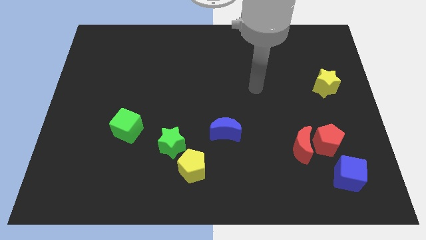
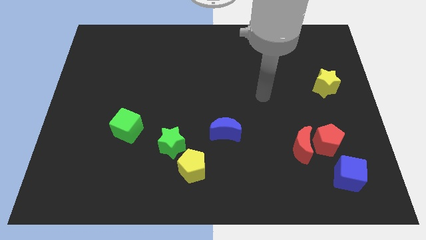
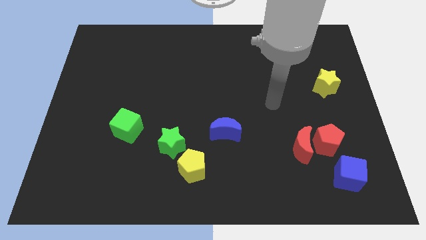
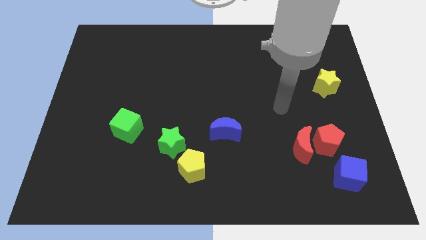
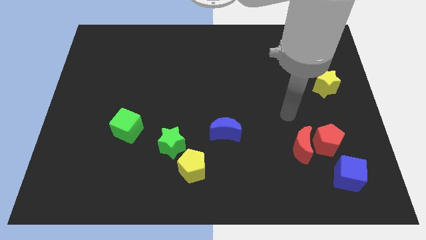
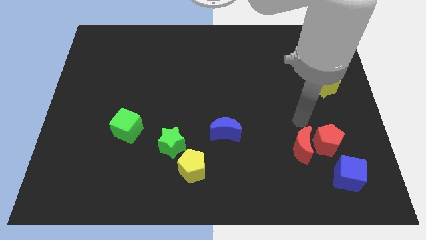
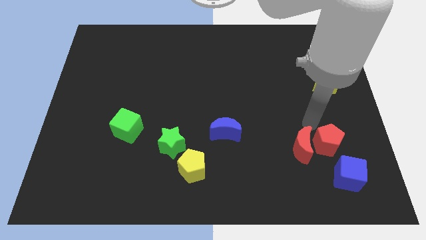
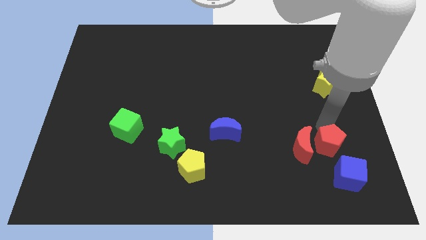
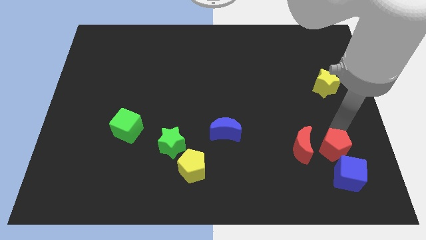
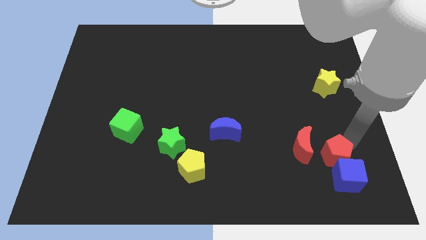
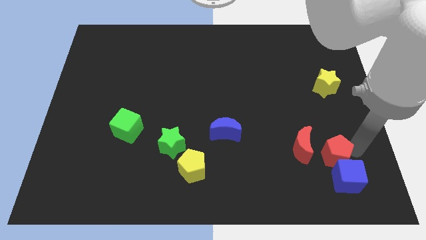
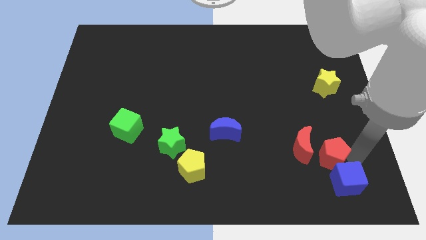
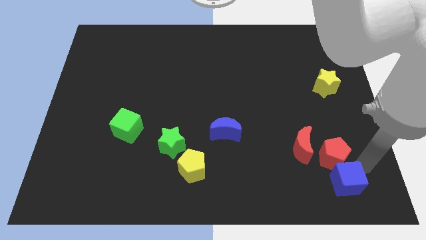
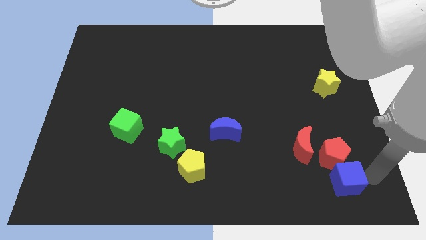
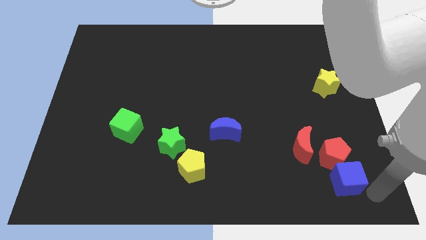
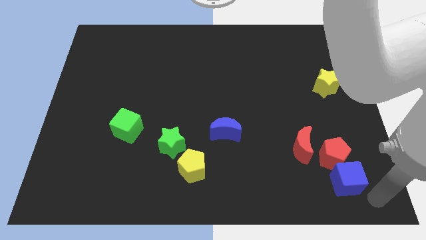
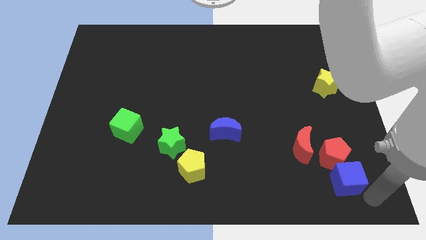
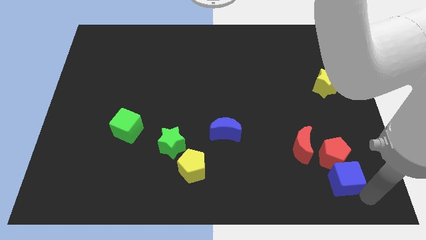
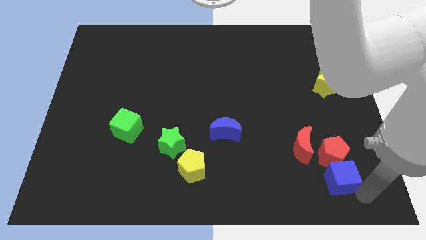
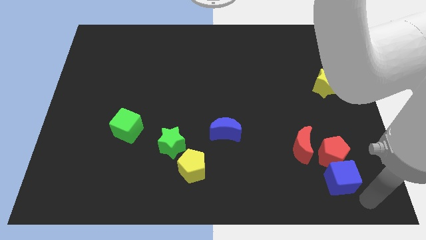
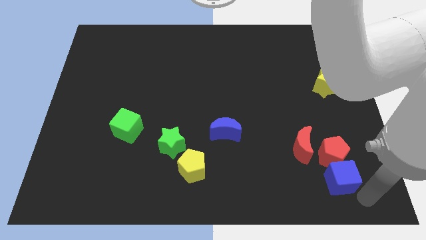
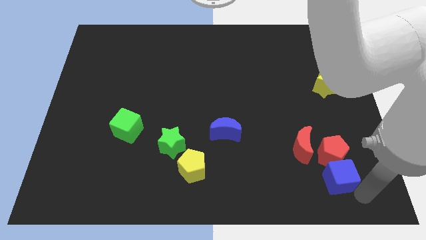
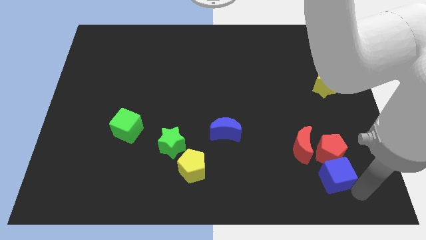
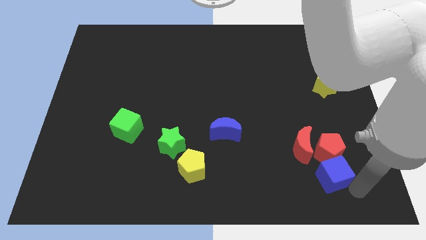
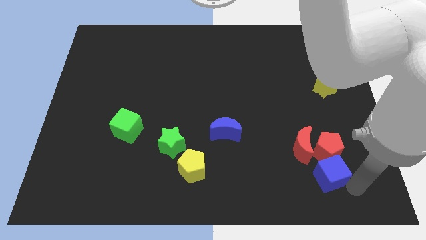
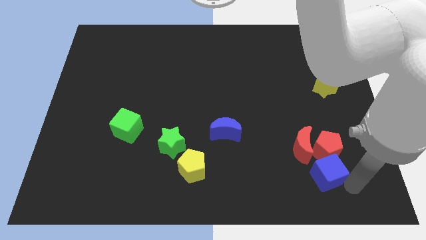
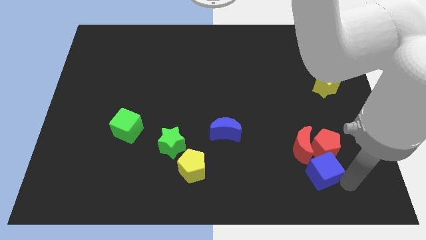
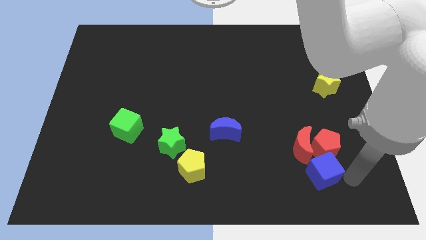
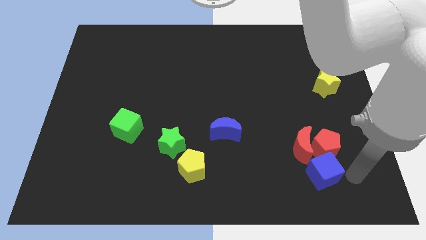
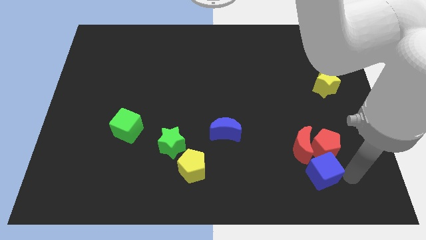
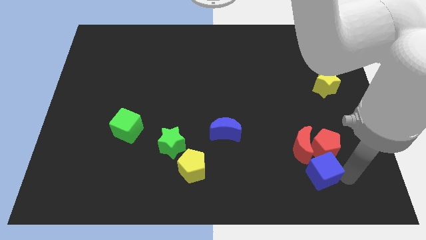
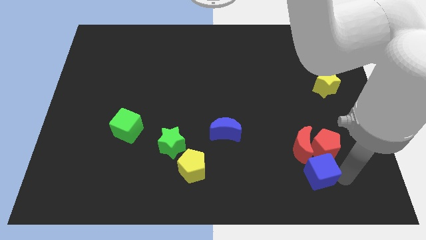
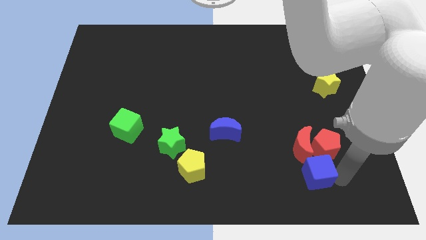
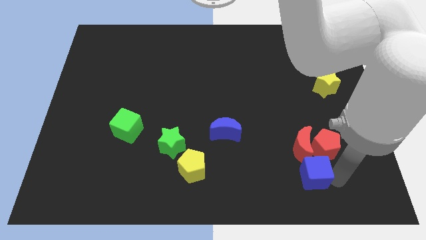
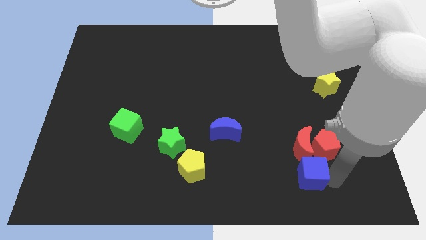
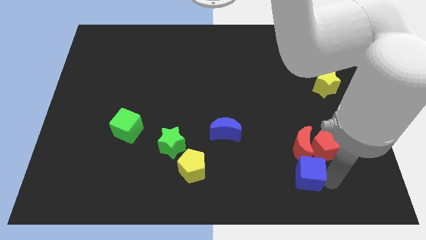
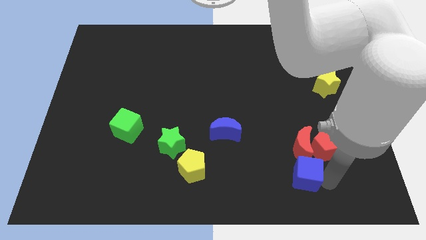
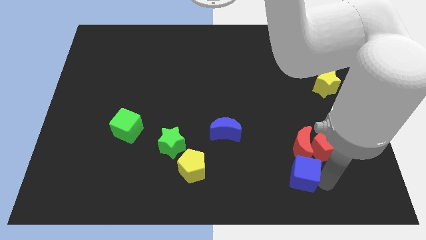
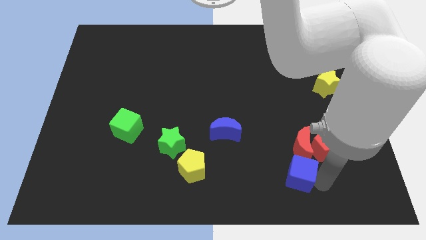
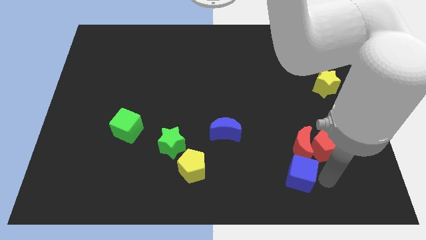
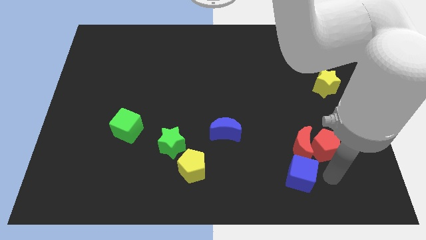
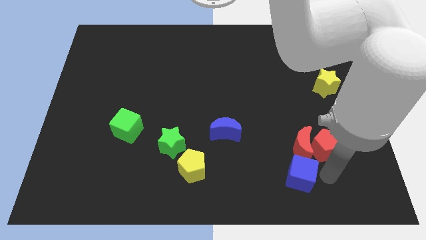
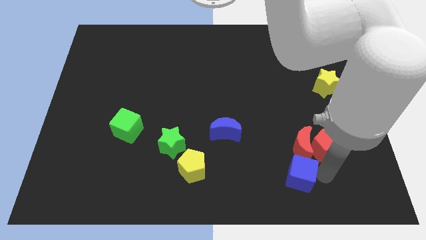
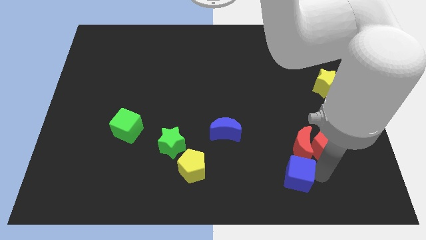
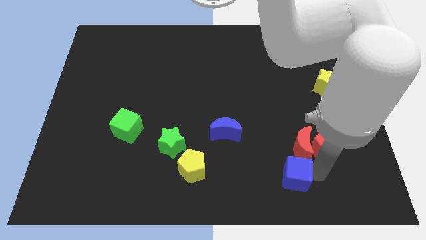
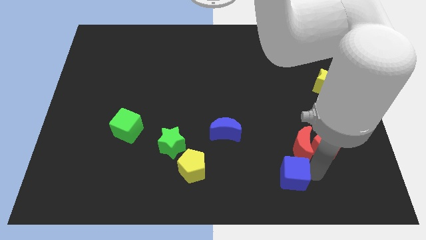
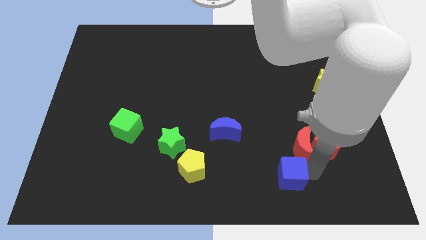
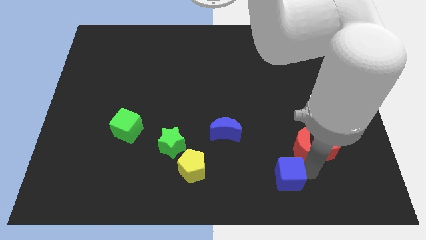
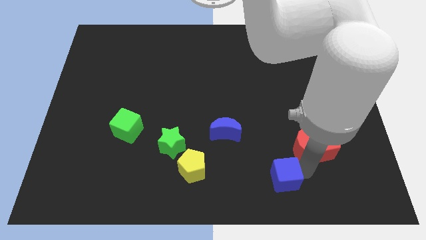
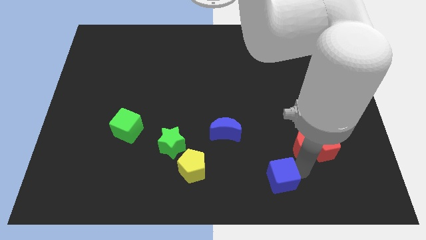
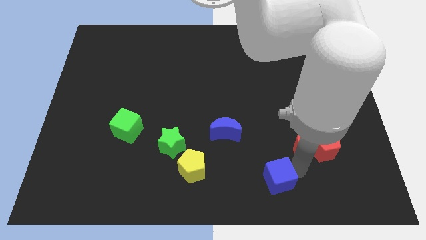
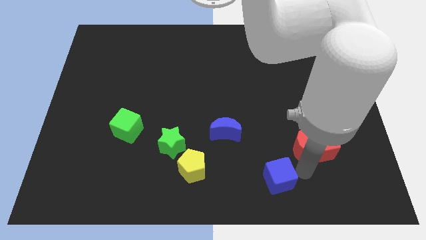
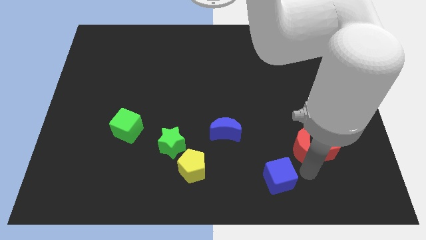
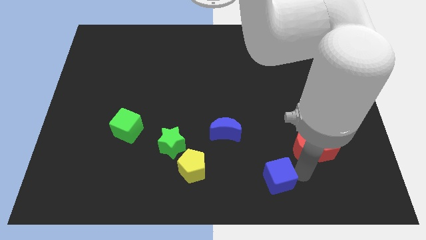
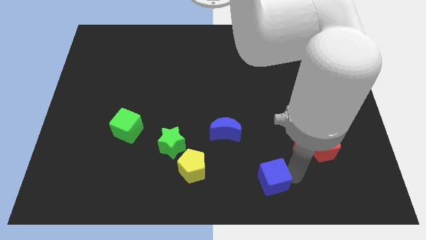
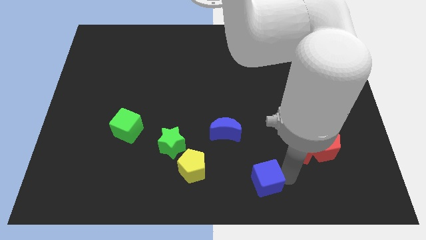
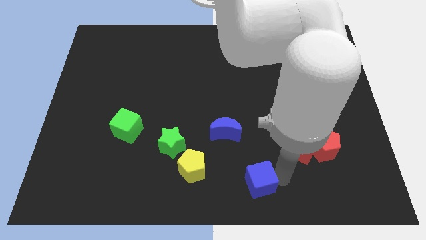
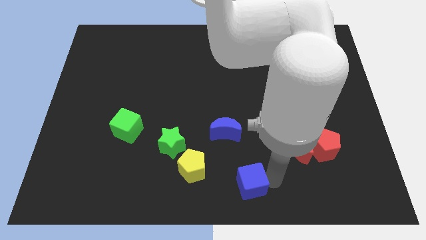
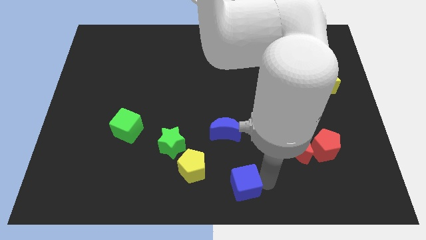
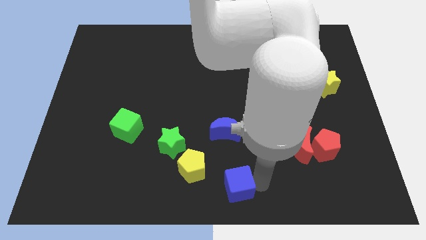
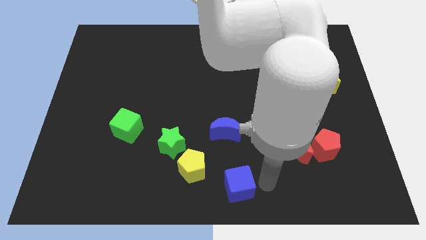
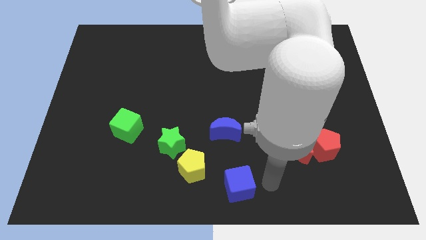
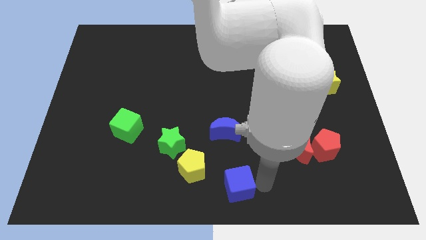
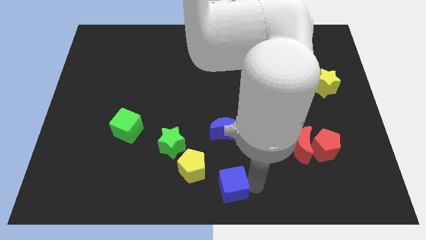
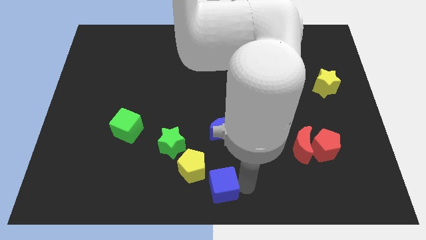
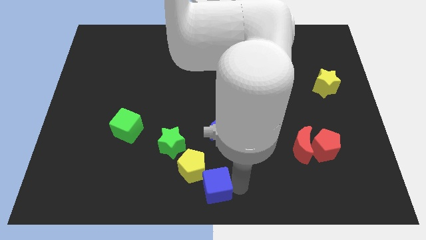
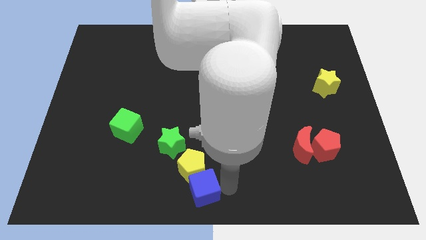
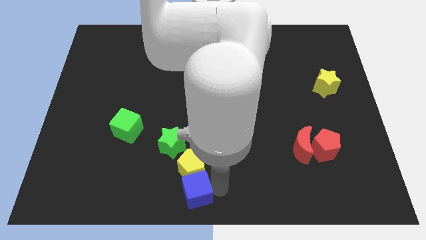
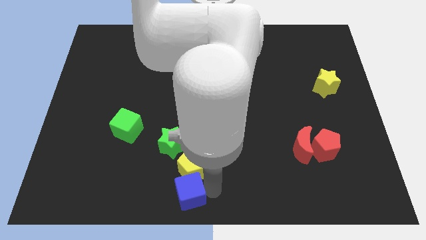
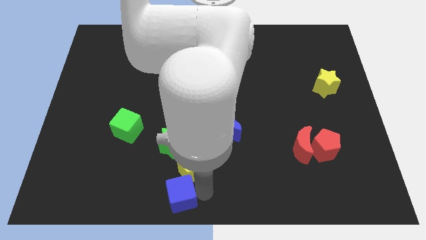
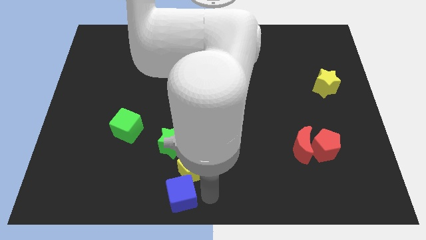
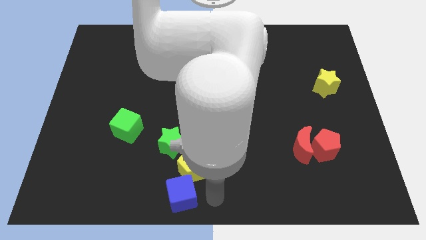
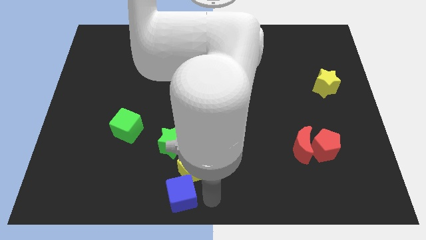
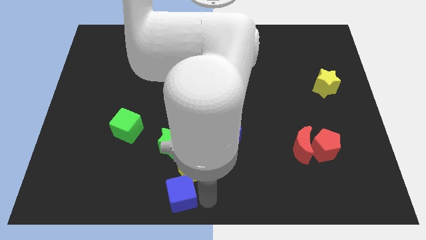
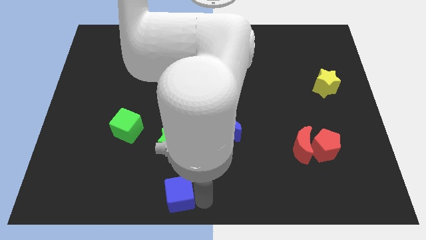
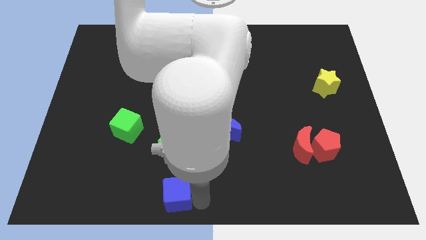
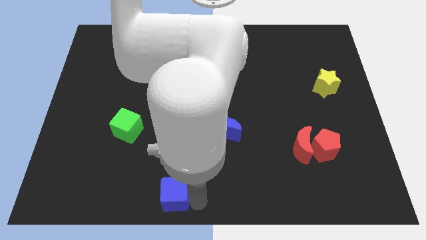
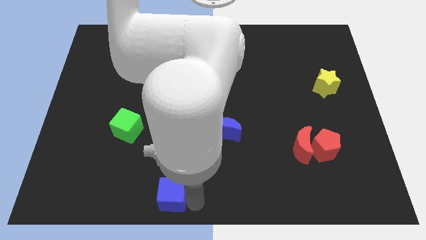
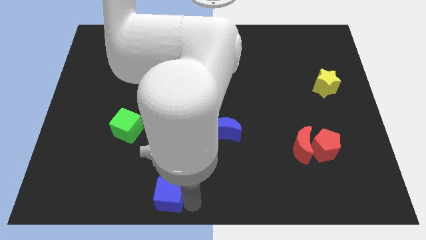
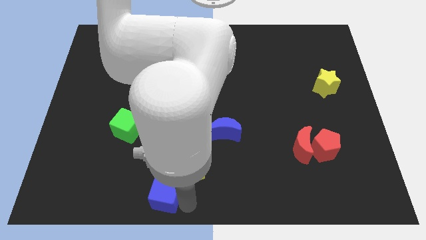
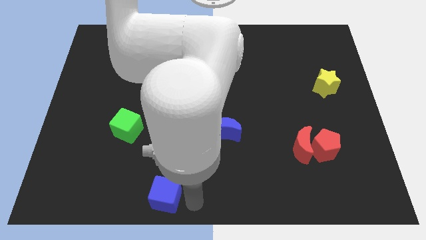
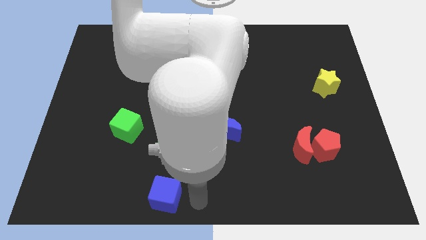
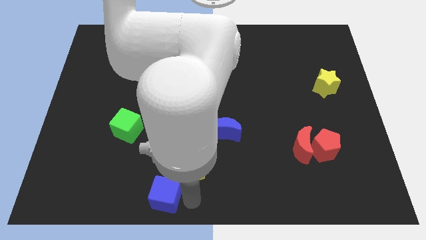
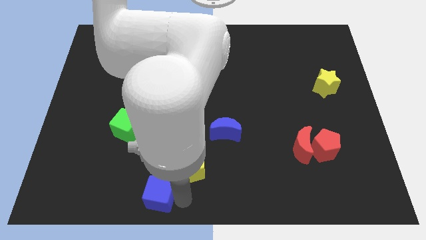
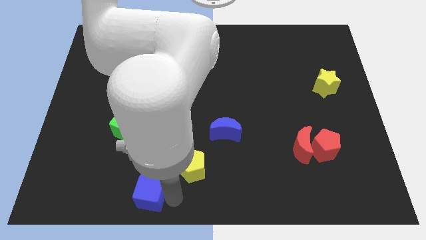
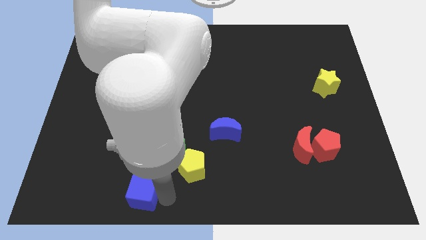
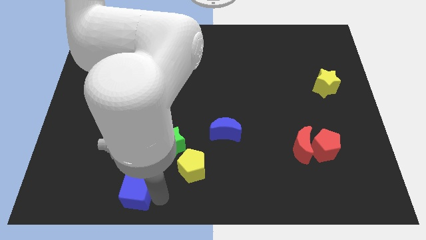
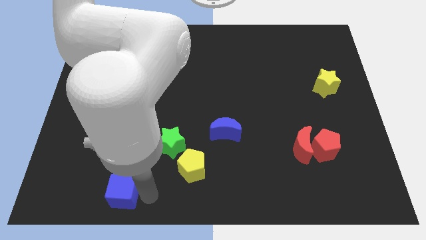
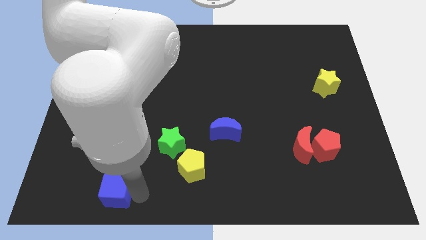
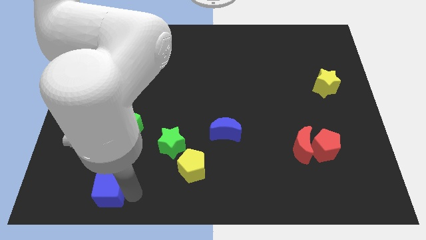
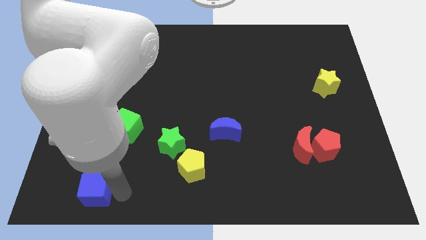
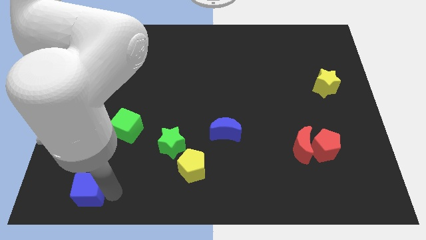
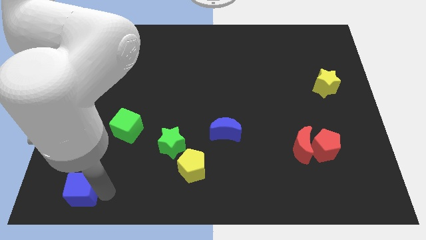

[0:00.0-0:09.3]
push the blue cube to the bottom left
